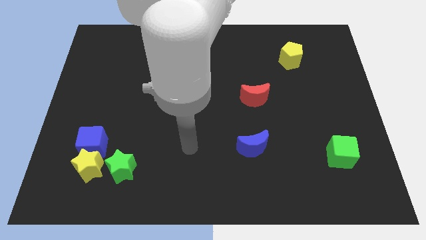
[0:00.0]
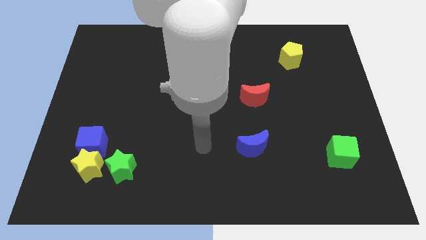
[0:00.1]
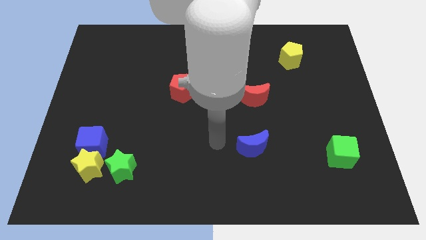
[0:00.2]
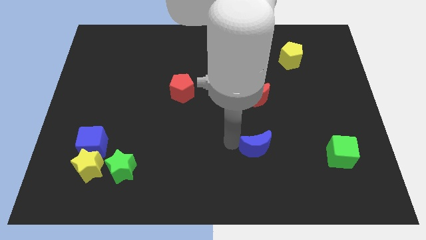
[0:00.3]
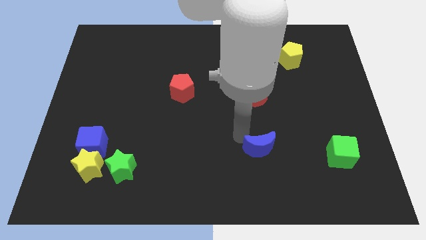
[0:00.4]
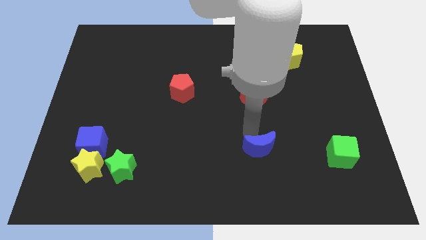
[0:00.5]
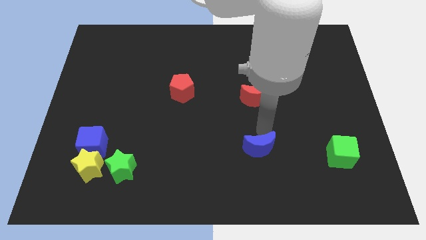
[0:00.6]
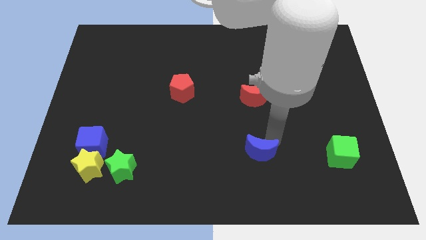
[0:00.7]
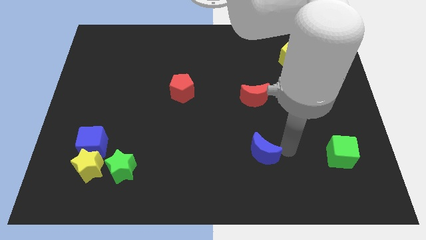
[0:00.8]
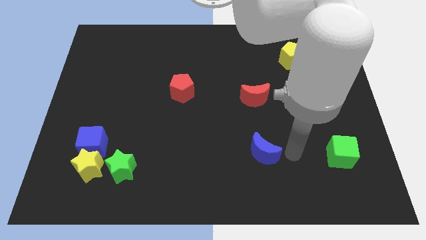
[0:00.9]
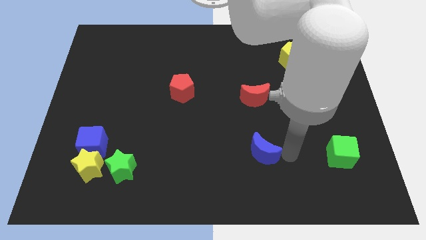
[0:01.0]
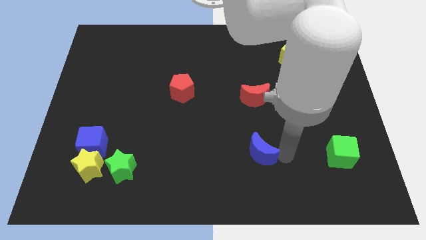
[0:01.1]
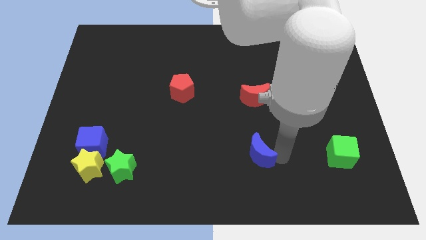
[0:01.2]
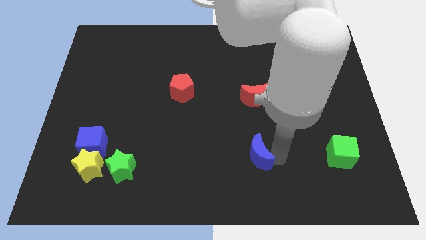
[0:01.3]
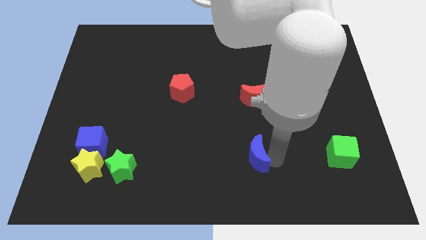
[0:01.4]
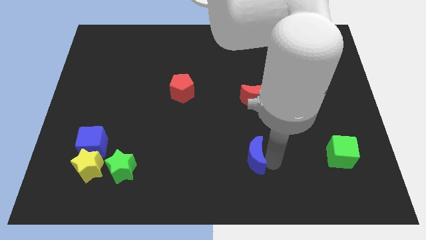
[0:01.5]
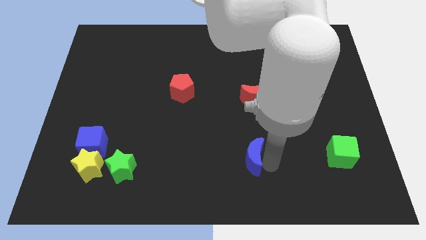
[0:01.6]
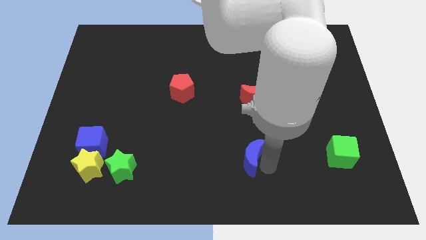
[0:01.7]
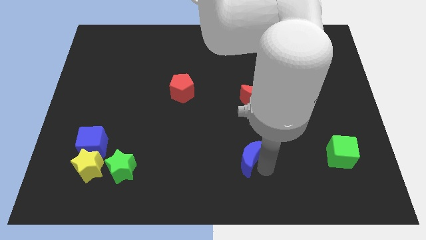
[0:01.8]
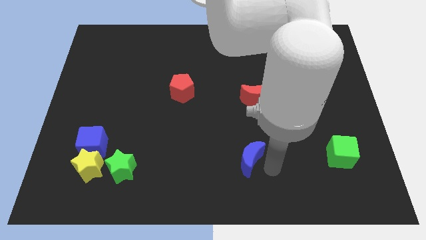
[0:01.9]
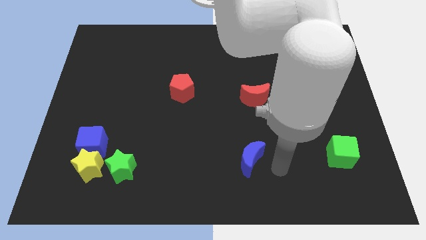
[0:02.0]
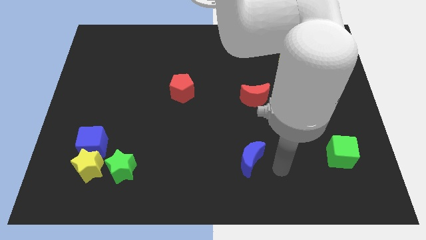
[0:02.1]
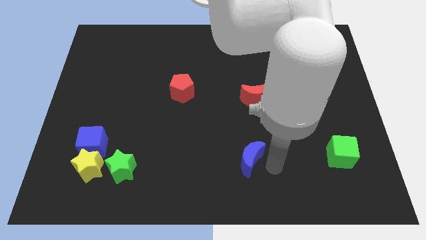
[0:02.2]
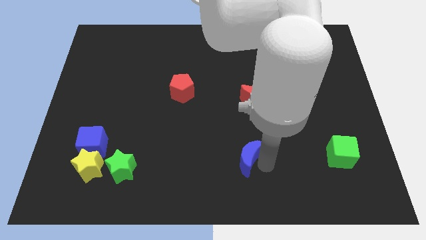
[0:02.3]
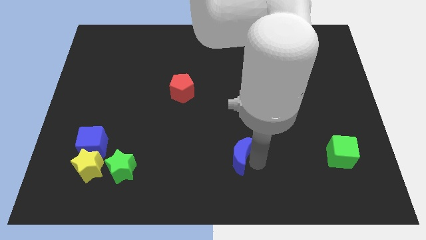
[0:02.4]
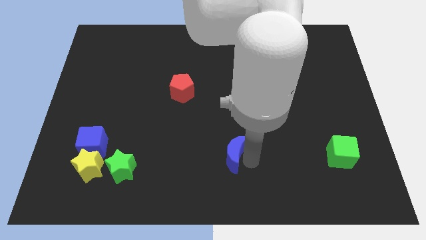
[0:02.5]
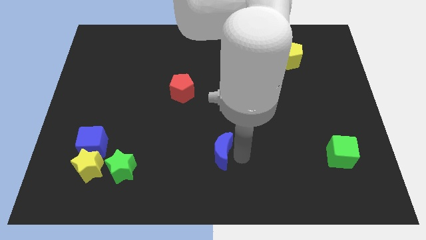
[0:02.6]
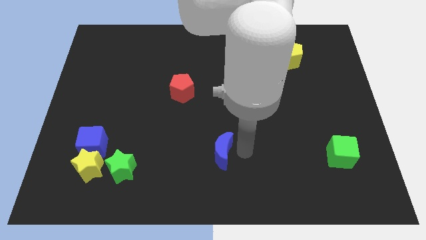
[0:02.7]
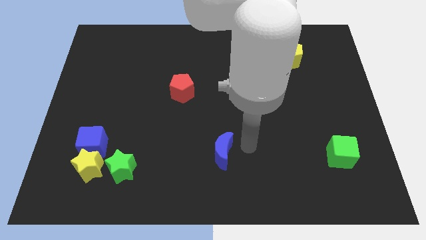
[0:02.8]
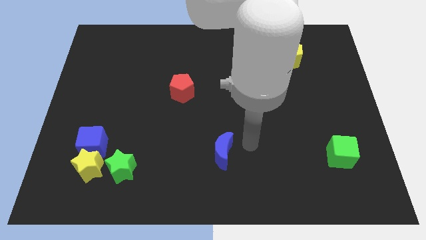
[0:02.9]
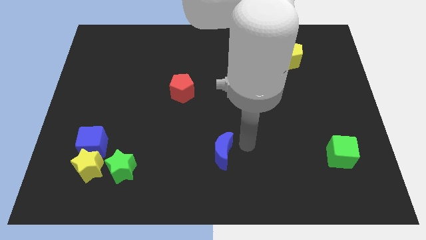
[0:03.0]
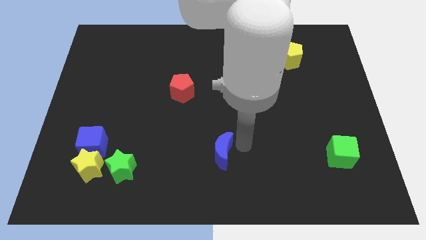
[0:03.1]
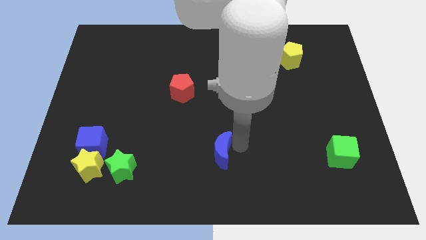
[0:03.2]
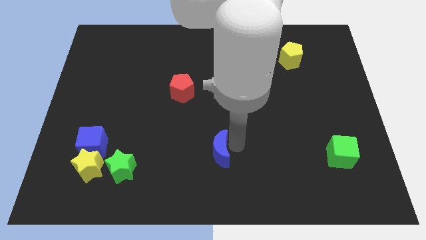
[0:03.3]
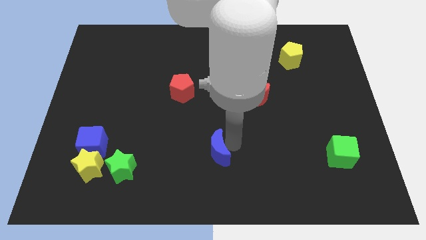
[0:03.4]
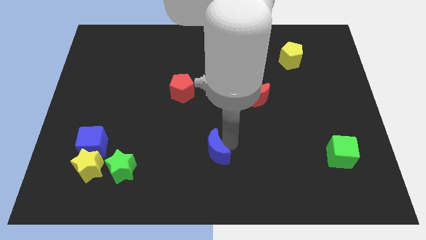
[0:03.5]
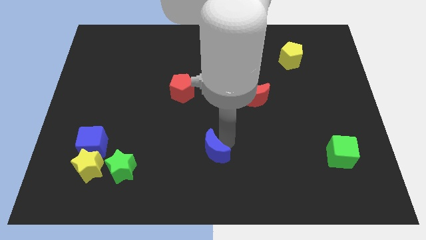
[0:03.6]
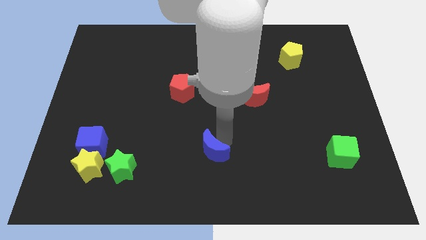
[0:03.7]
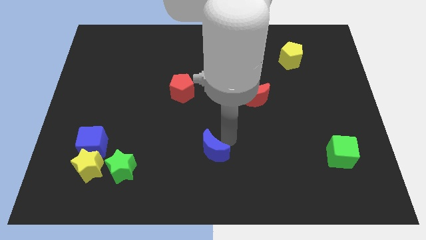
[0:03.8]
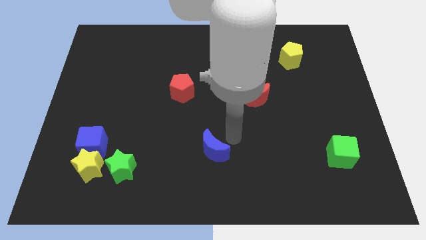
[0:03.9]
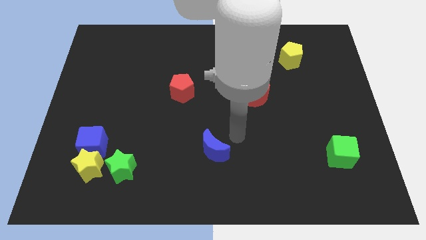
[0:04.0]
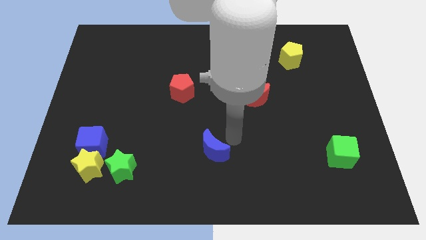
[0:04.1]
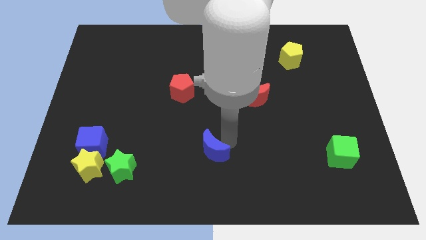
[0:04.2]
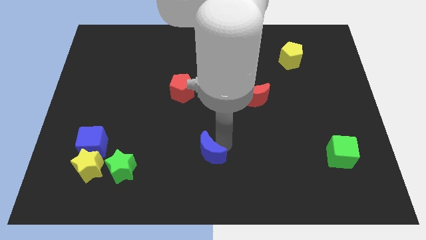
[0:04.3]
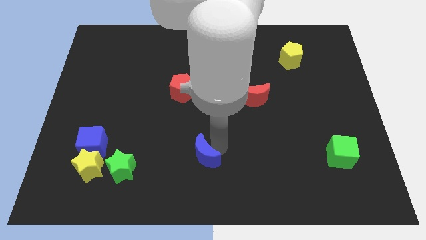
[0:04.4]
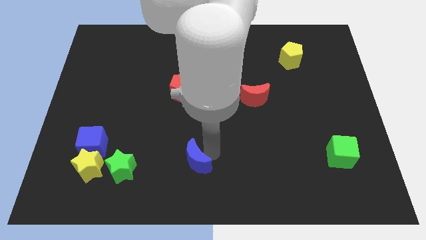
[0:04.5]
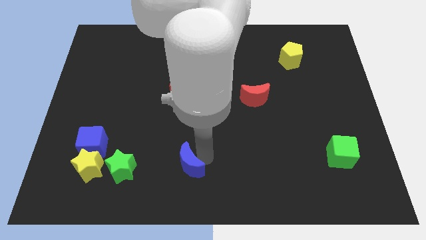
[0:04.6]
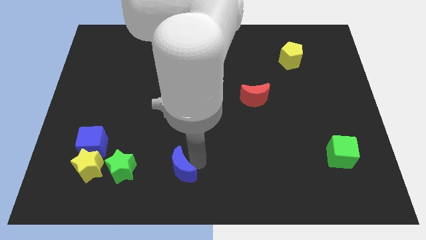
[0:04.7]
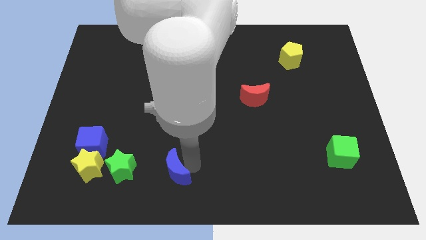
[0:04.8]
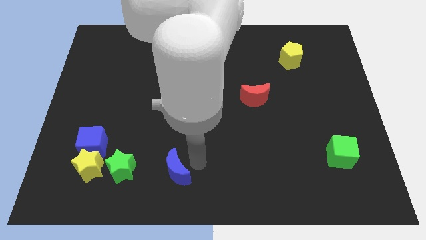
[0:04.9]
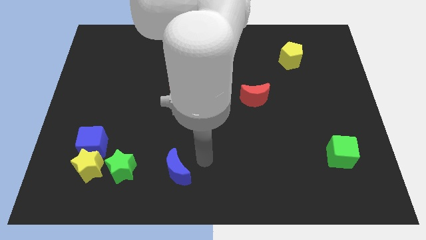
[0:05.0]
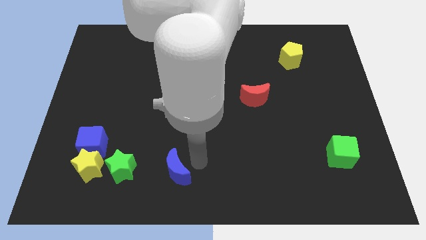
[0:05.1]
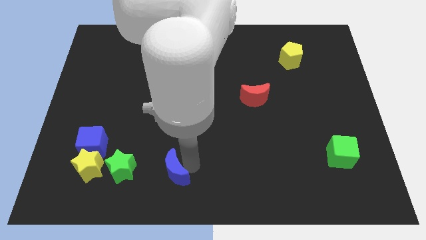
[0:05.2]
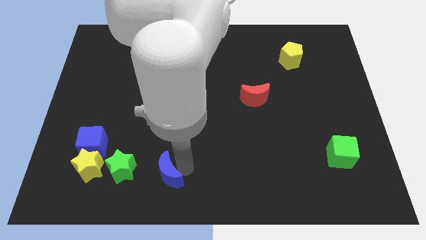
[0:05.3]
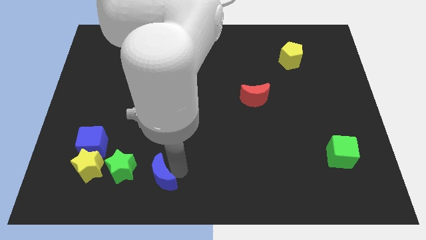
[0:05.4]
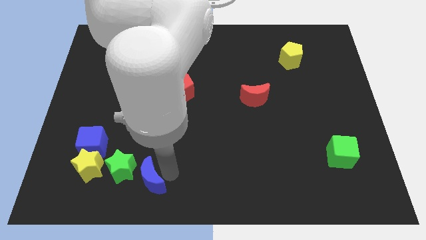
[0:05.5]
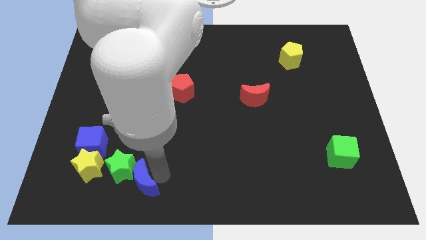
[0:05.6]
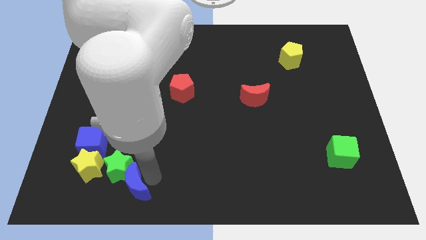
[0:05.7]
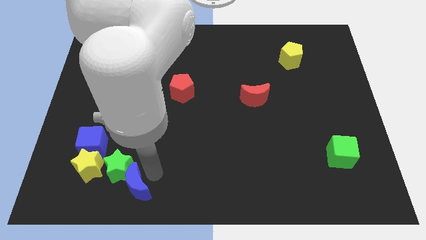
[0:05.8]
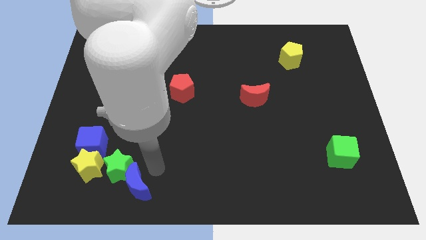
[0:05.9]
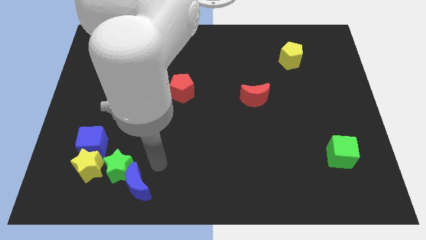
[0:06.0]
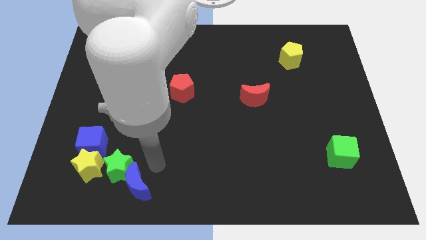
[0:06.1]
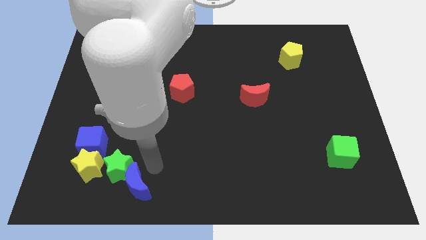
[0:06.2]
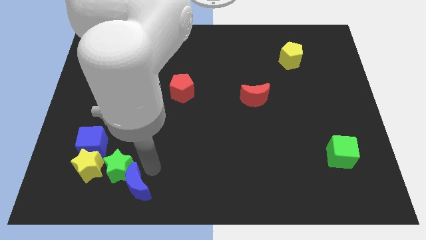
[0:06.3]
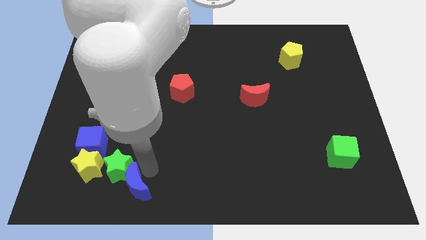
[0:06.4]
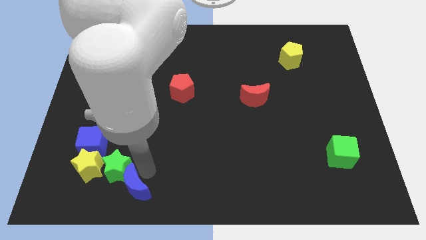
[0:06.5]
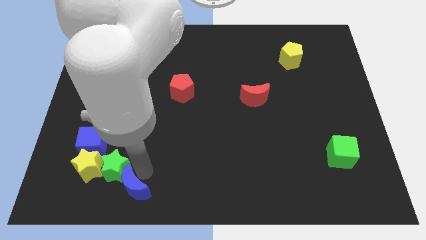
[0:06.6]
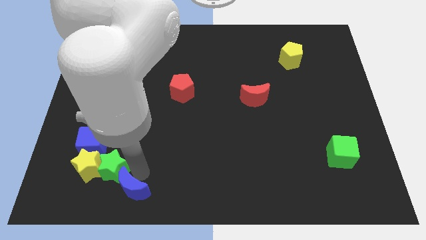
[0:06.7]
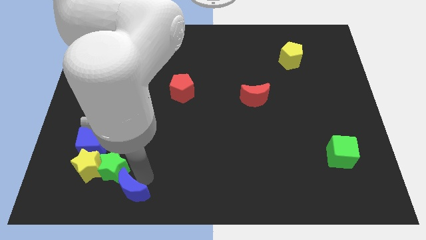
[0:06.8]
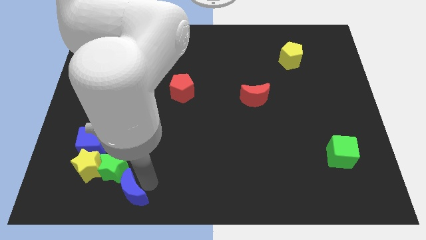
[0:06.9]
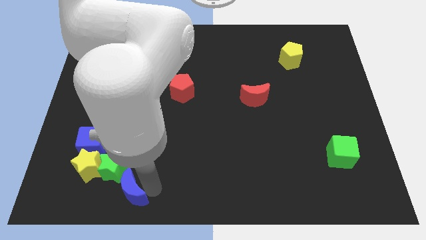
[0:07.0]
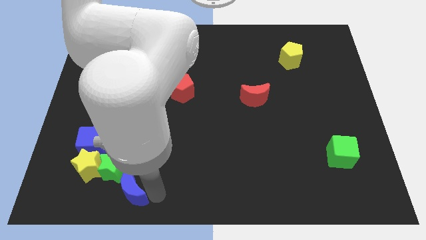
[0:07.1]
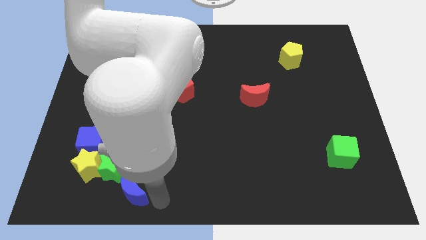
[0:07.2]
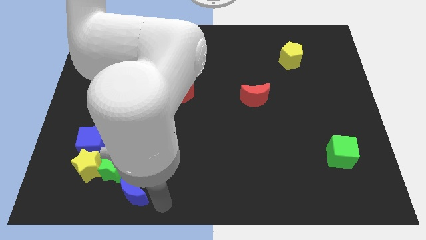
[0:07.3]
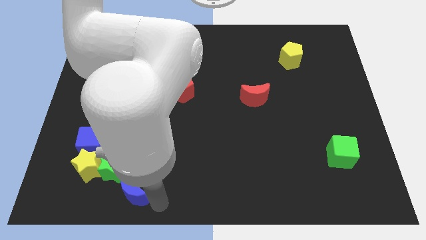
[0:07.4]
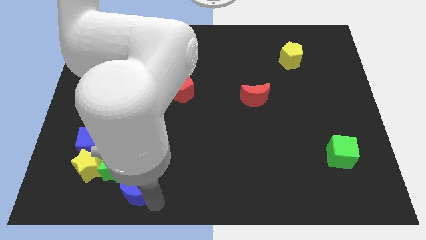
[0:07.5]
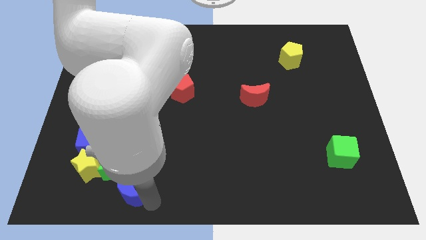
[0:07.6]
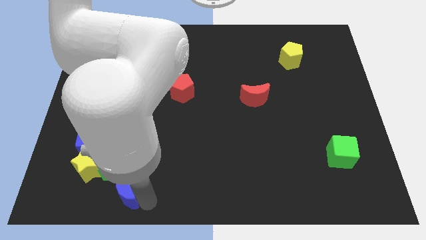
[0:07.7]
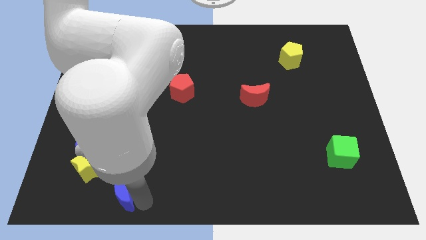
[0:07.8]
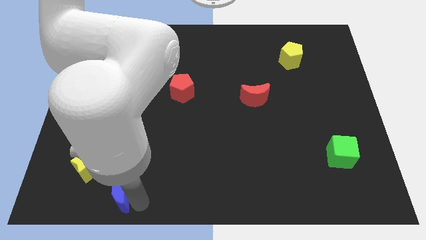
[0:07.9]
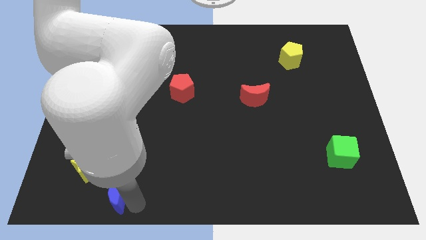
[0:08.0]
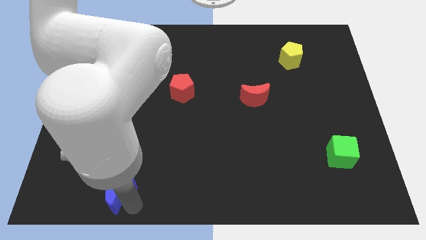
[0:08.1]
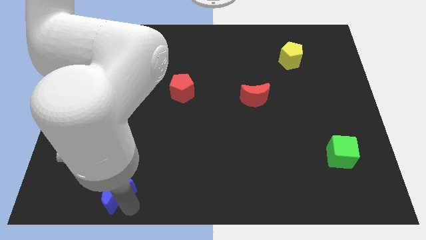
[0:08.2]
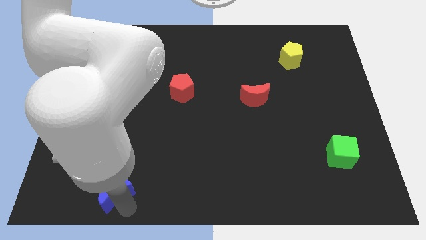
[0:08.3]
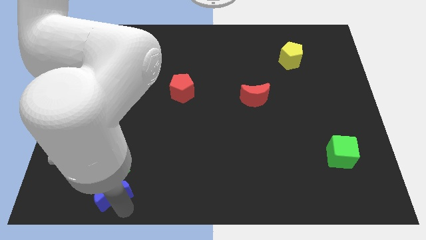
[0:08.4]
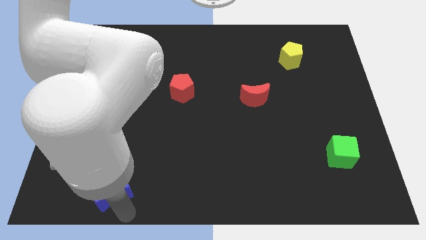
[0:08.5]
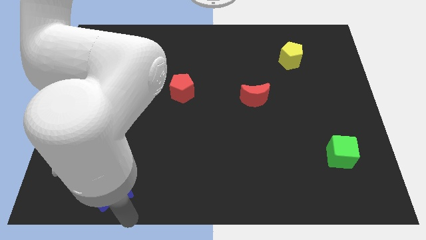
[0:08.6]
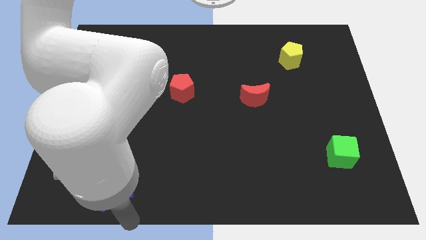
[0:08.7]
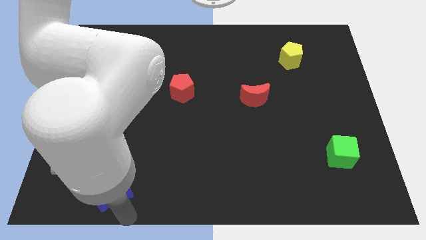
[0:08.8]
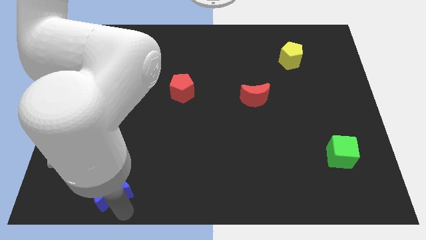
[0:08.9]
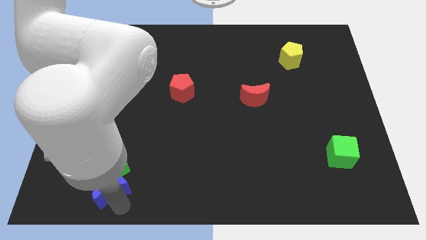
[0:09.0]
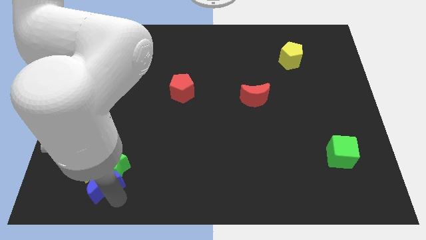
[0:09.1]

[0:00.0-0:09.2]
put the blue moon to the yellow star
